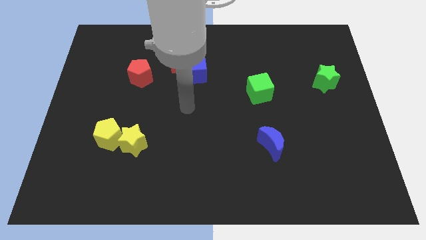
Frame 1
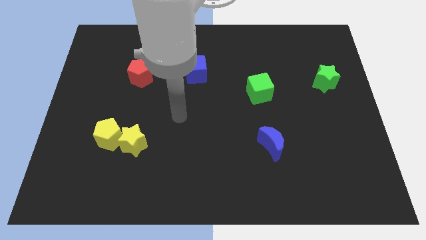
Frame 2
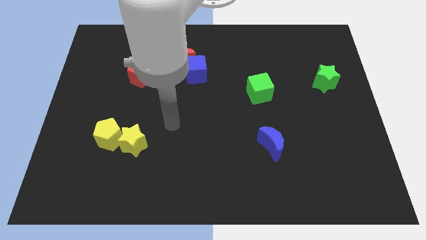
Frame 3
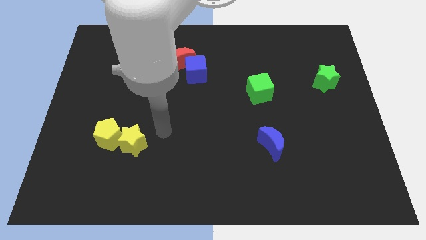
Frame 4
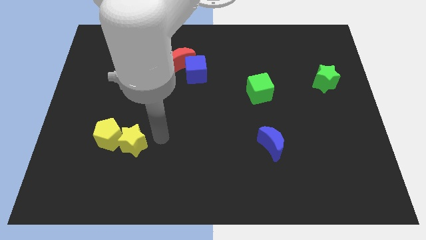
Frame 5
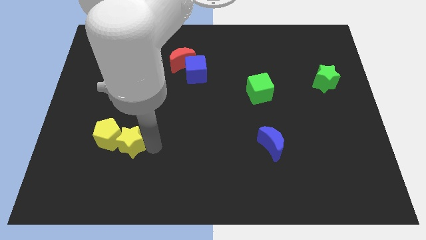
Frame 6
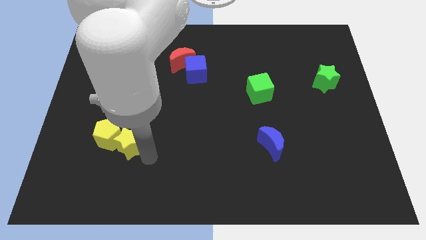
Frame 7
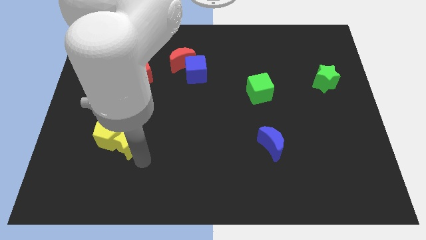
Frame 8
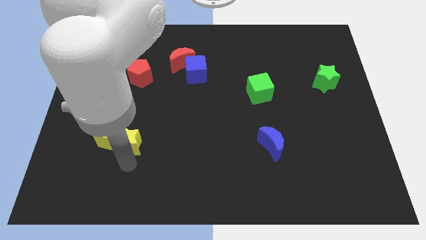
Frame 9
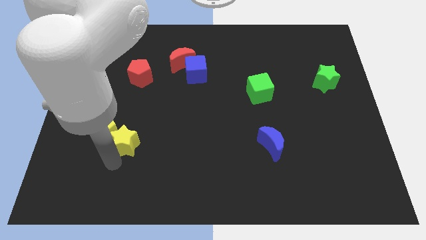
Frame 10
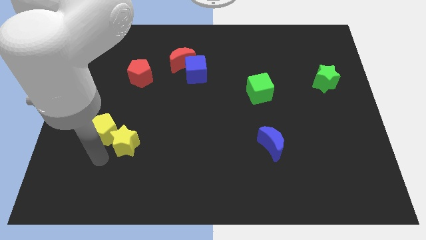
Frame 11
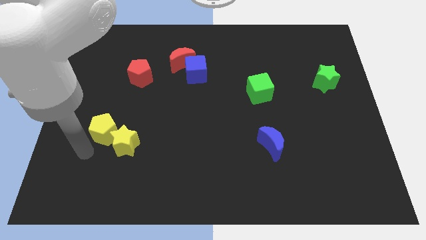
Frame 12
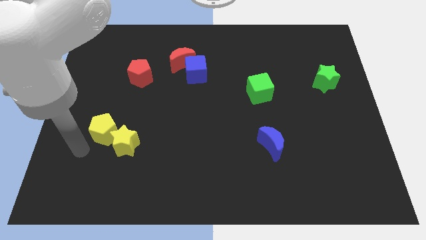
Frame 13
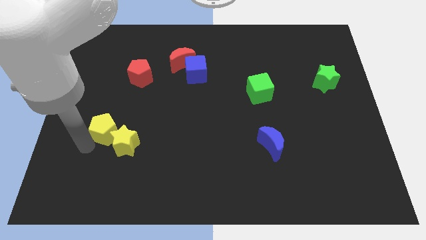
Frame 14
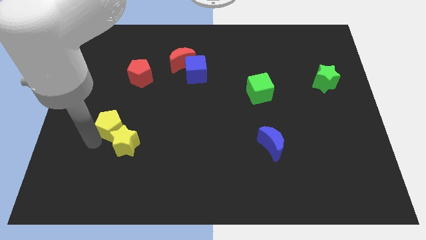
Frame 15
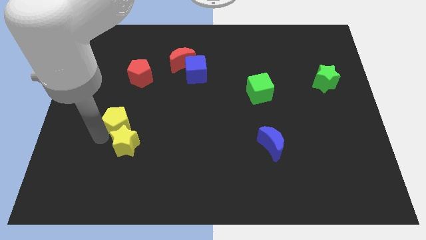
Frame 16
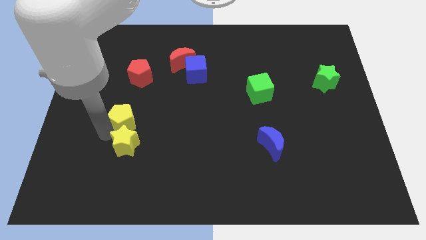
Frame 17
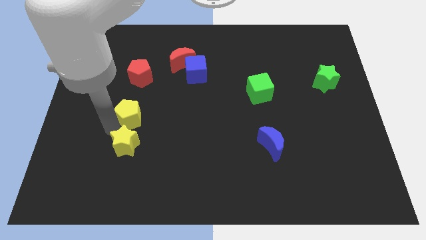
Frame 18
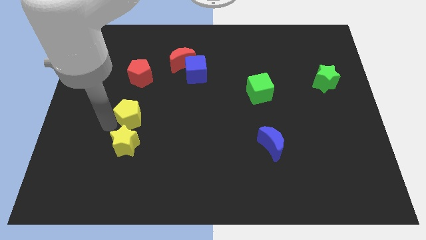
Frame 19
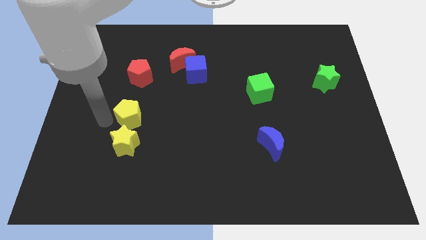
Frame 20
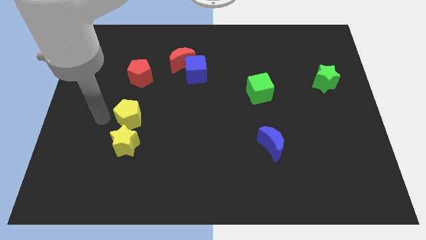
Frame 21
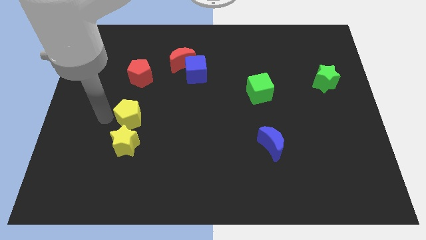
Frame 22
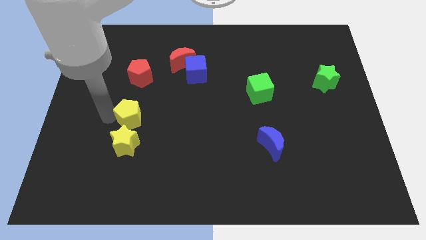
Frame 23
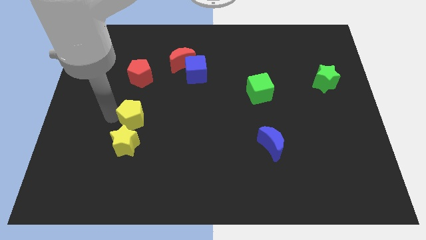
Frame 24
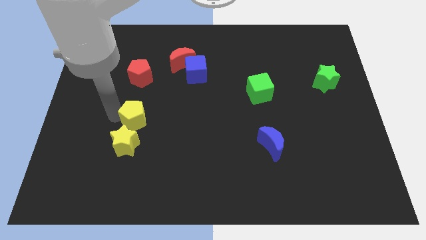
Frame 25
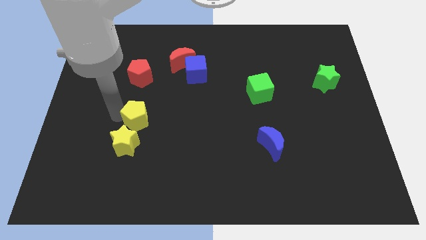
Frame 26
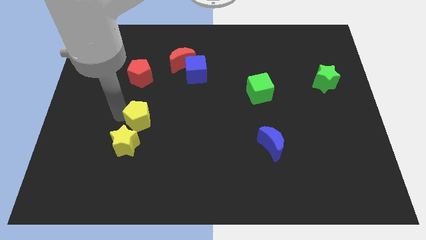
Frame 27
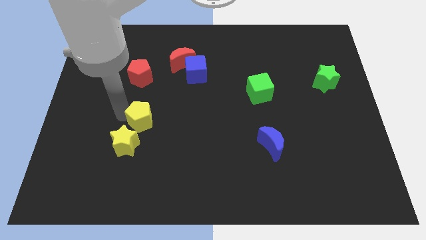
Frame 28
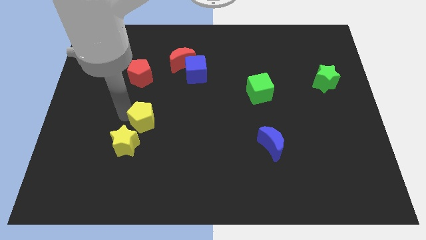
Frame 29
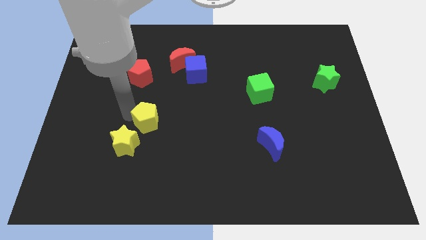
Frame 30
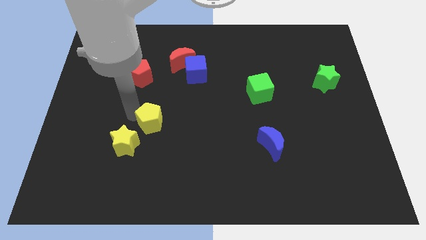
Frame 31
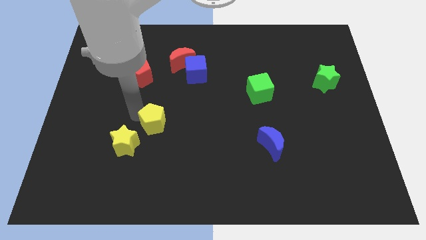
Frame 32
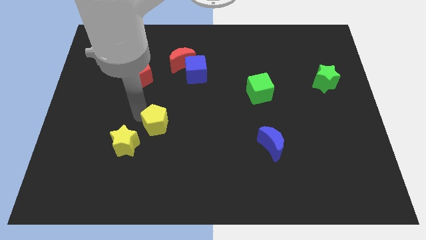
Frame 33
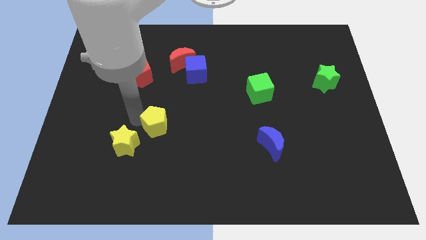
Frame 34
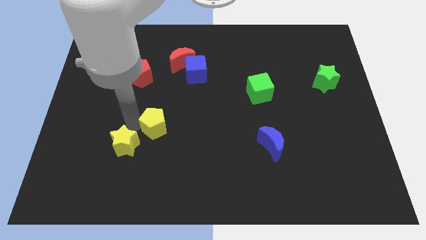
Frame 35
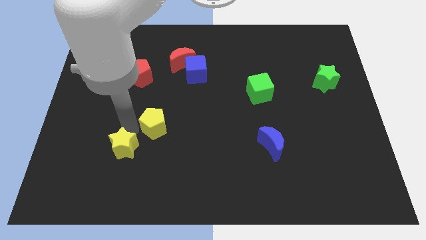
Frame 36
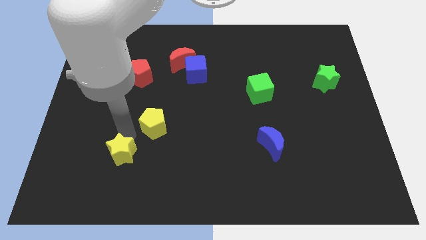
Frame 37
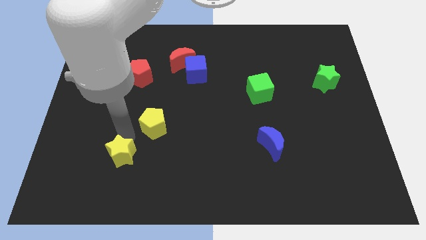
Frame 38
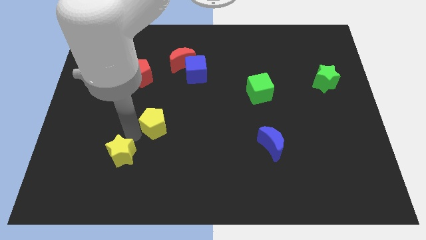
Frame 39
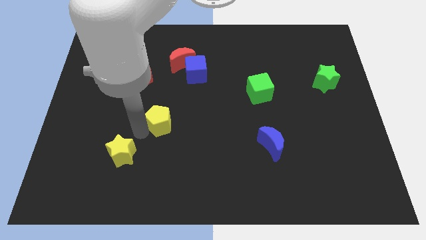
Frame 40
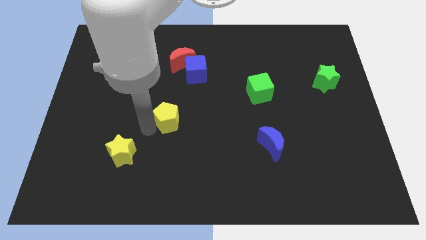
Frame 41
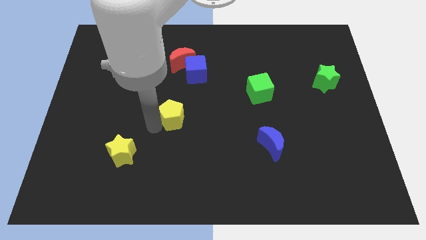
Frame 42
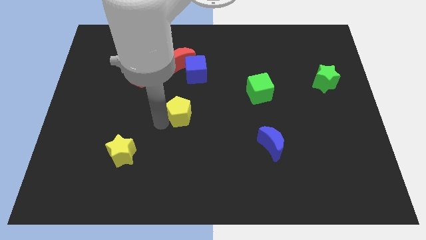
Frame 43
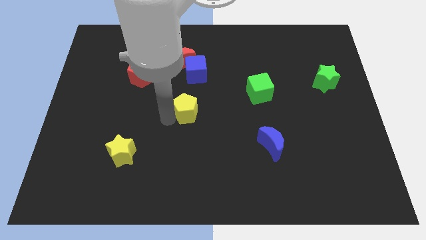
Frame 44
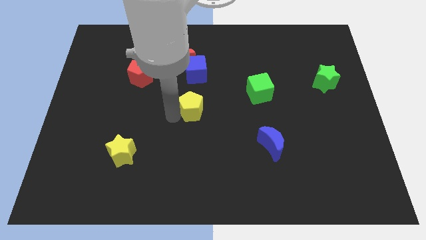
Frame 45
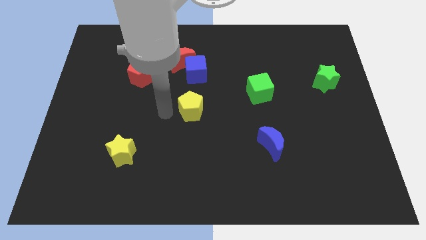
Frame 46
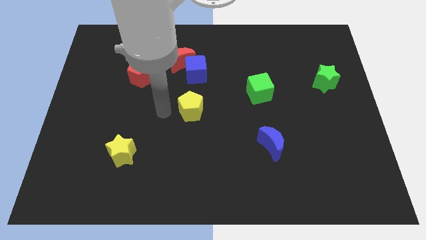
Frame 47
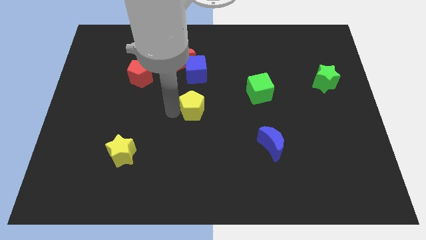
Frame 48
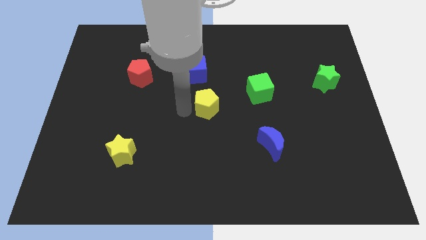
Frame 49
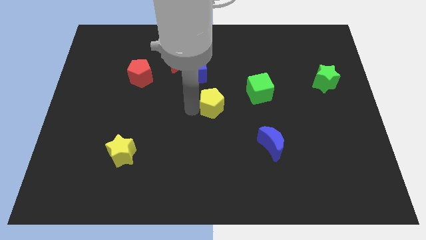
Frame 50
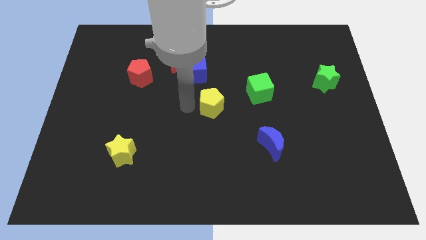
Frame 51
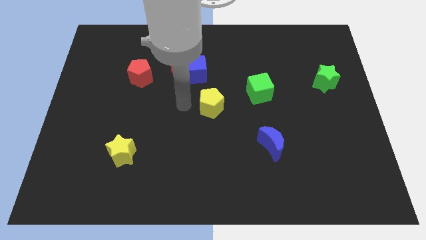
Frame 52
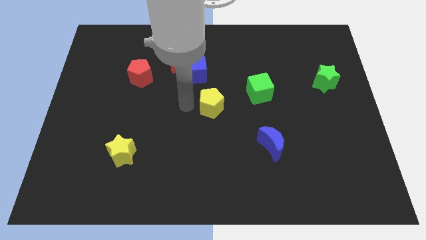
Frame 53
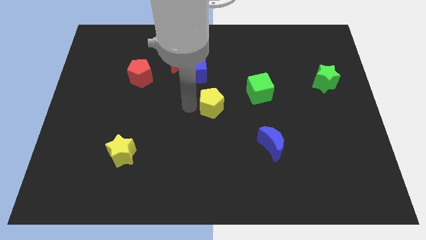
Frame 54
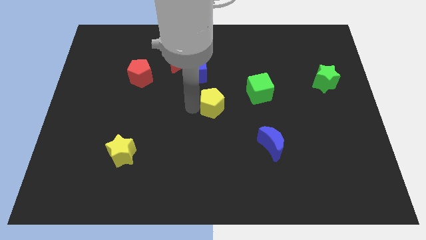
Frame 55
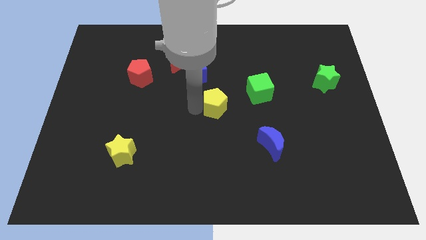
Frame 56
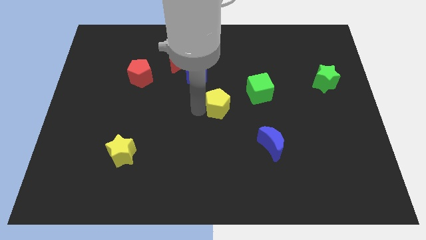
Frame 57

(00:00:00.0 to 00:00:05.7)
put the yellow pentagon diagonally down and to the left of the green cube
